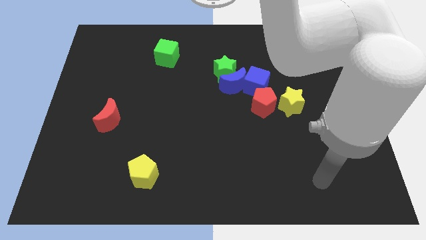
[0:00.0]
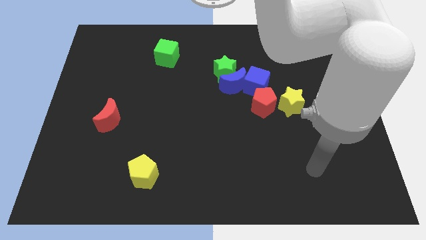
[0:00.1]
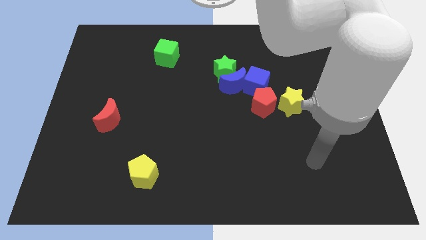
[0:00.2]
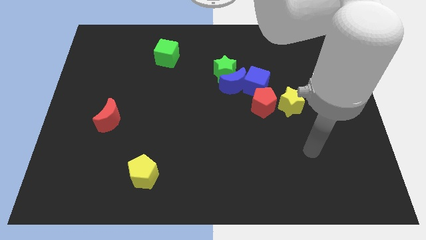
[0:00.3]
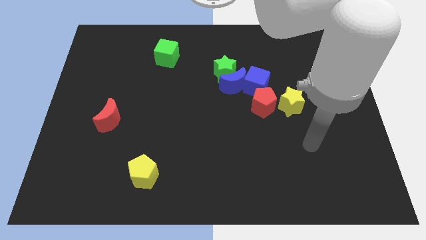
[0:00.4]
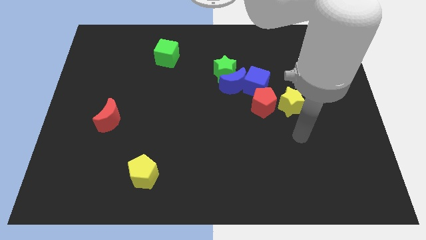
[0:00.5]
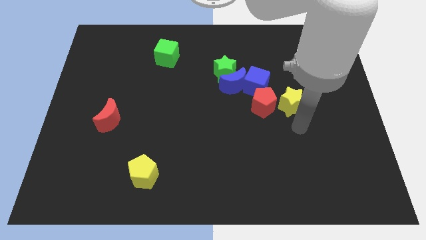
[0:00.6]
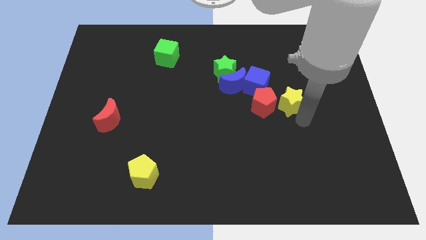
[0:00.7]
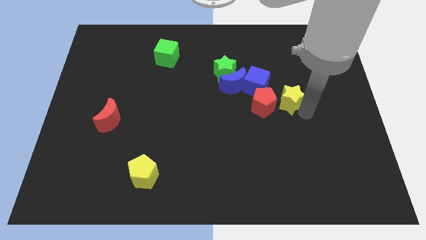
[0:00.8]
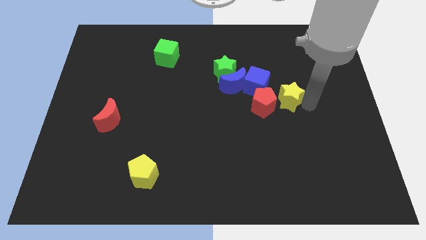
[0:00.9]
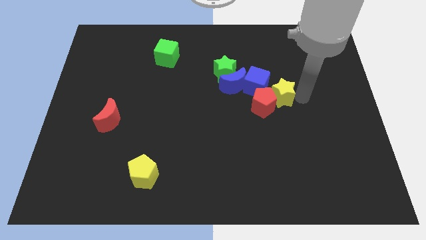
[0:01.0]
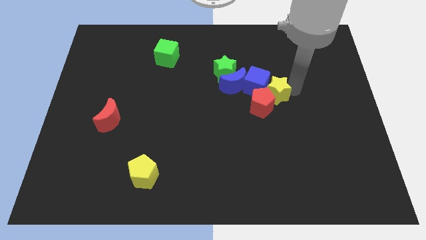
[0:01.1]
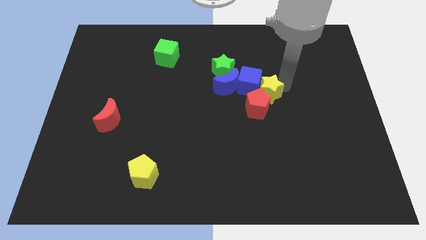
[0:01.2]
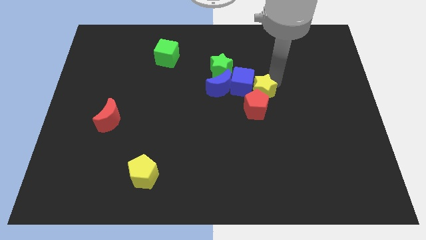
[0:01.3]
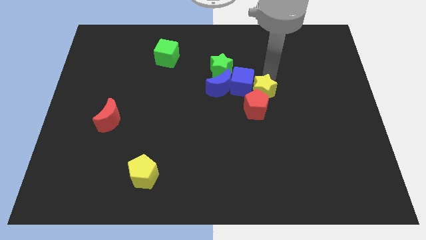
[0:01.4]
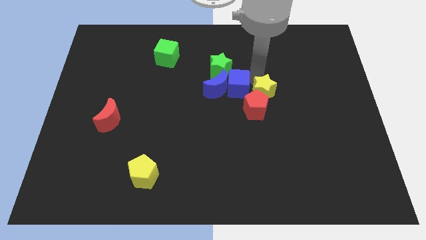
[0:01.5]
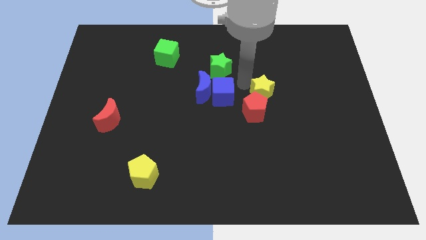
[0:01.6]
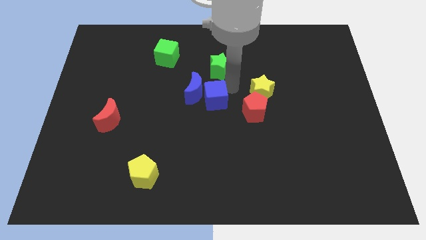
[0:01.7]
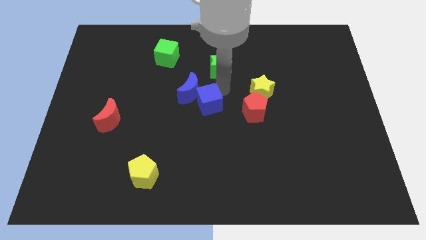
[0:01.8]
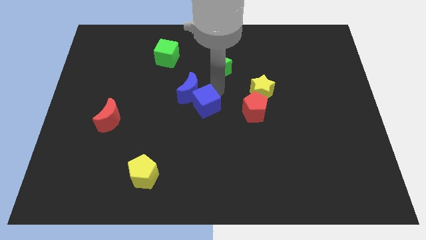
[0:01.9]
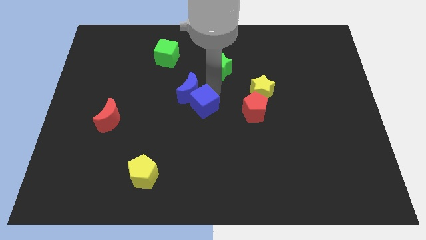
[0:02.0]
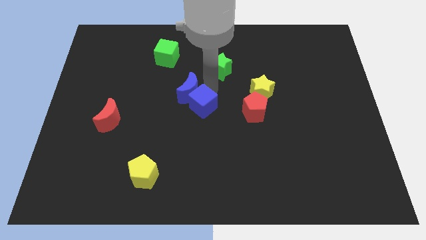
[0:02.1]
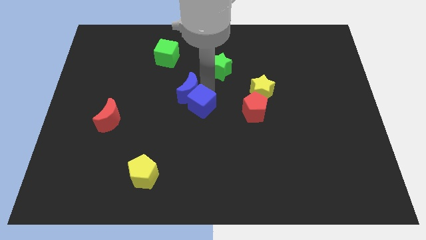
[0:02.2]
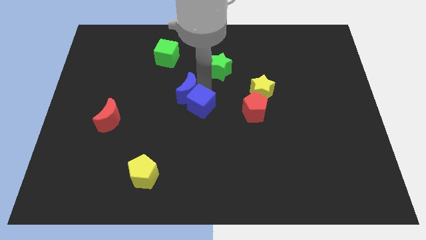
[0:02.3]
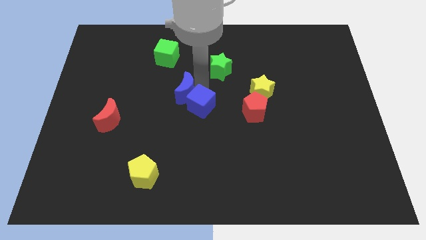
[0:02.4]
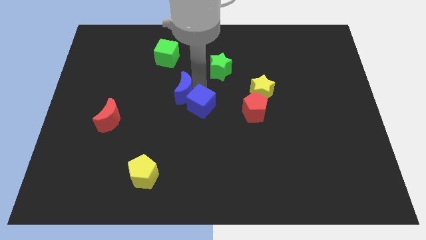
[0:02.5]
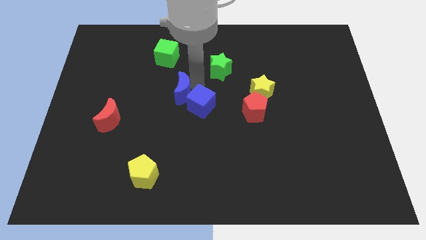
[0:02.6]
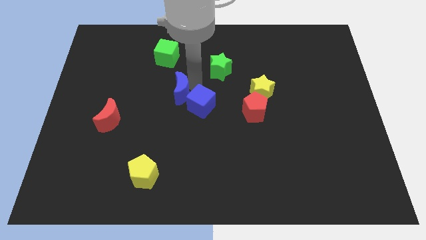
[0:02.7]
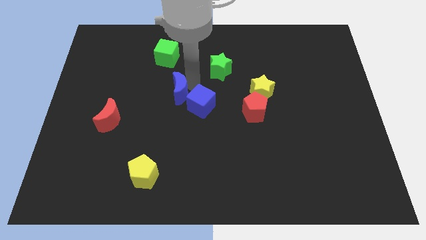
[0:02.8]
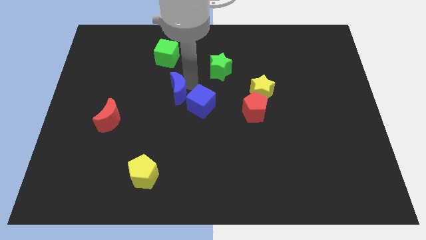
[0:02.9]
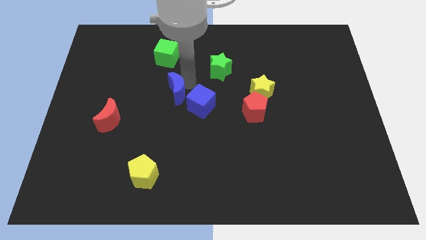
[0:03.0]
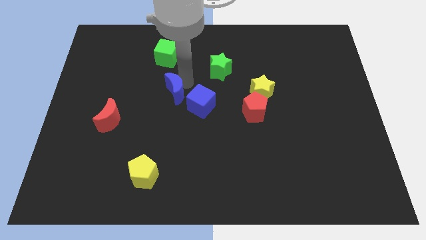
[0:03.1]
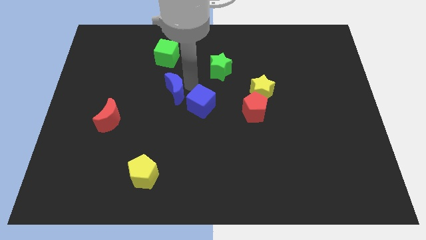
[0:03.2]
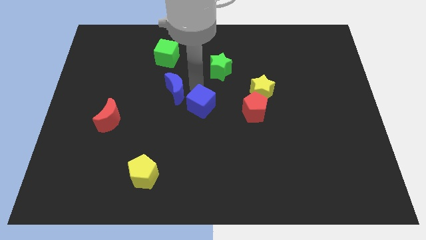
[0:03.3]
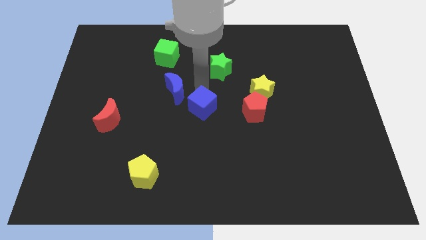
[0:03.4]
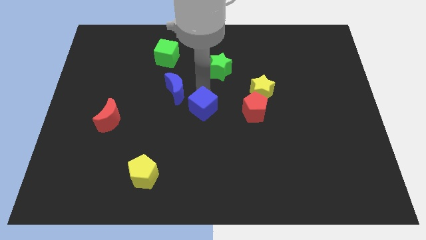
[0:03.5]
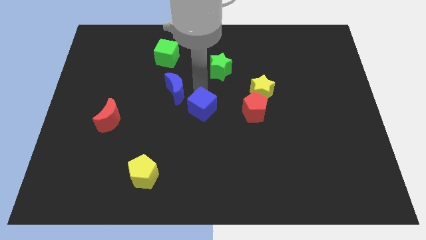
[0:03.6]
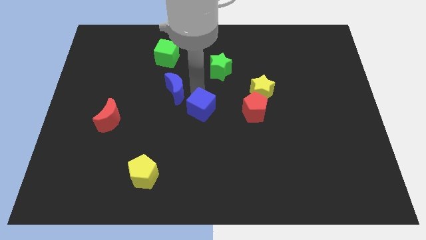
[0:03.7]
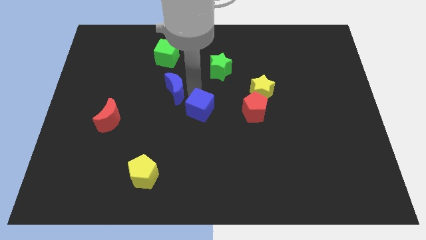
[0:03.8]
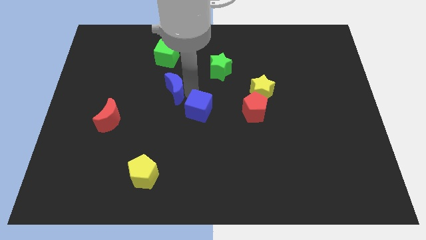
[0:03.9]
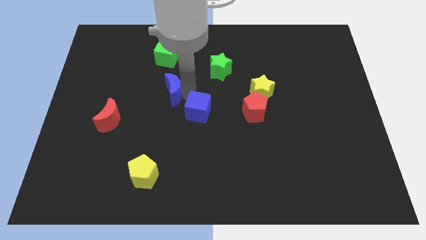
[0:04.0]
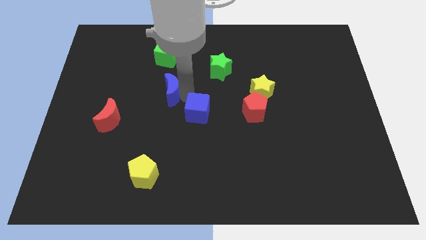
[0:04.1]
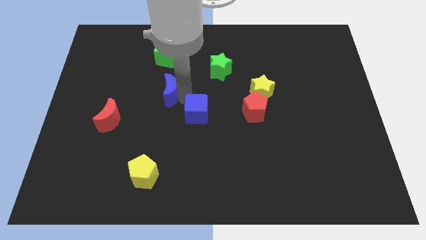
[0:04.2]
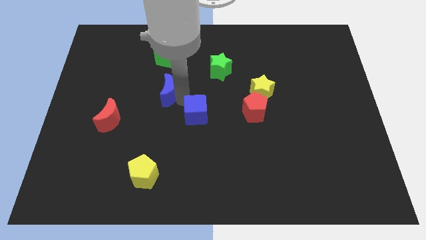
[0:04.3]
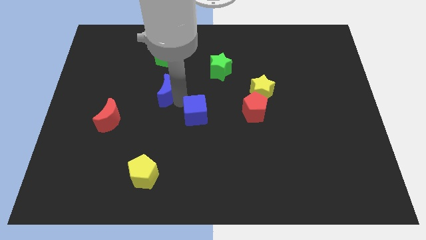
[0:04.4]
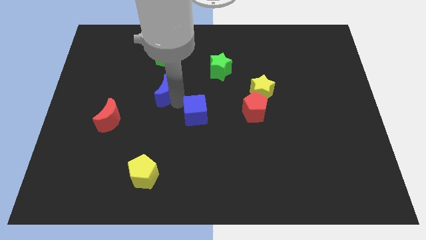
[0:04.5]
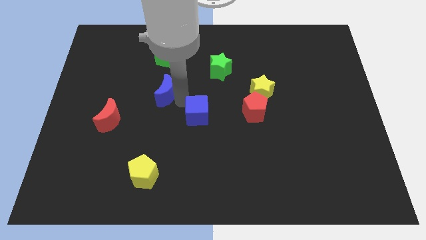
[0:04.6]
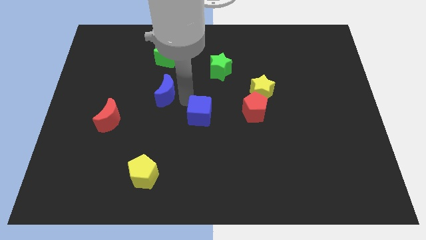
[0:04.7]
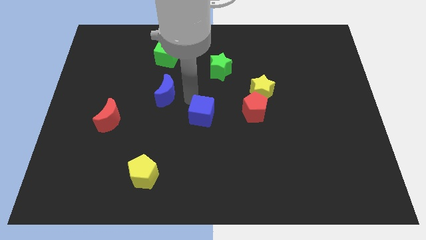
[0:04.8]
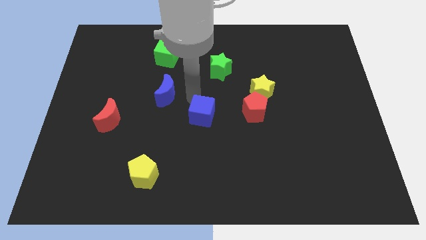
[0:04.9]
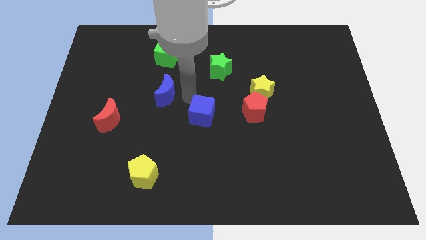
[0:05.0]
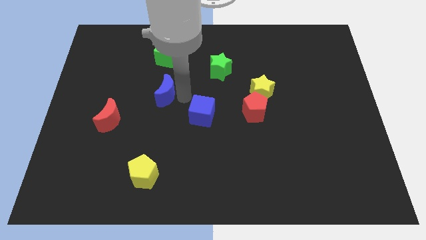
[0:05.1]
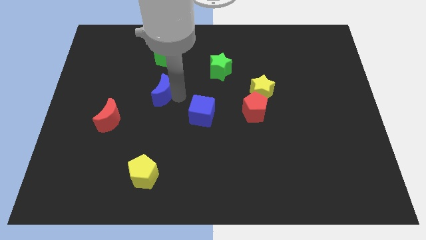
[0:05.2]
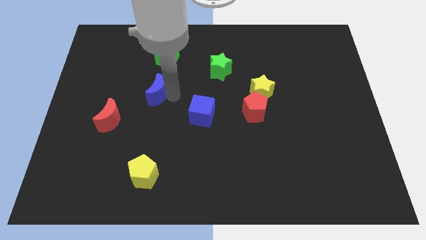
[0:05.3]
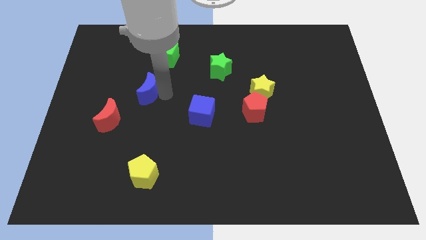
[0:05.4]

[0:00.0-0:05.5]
slide the blue moon left

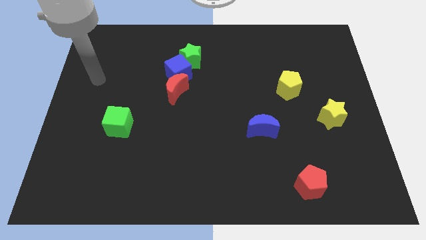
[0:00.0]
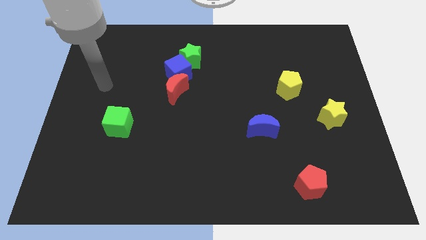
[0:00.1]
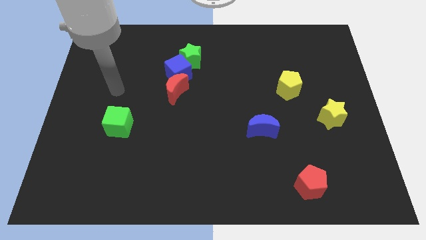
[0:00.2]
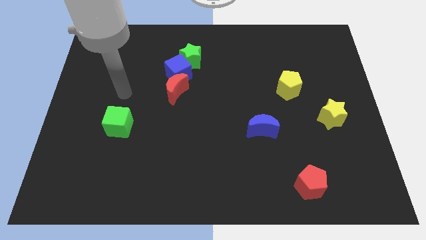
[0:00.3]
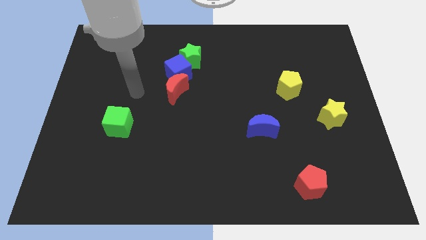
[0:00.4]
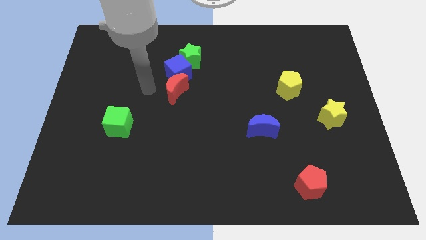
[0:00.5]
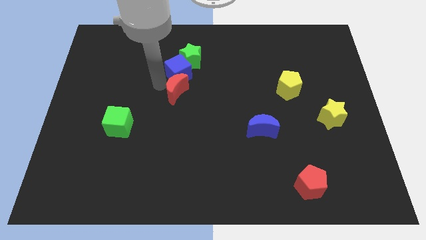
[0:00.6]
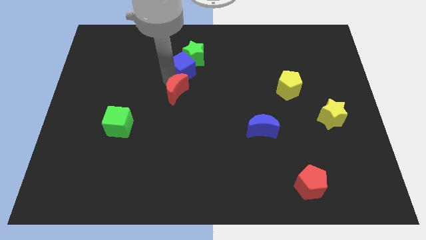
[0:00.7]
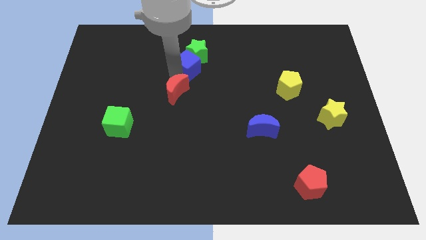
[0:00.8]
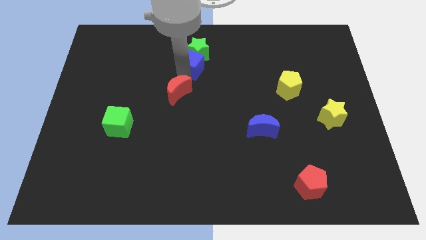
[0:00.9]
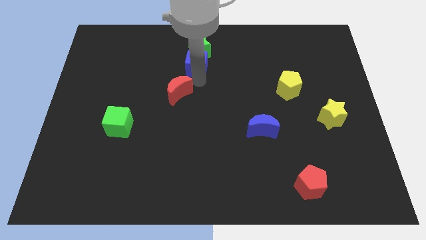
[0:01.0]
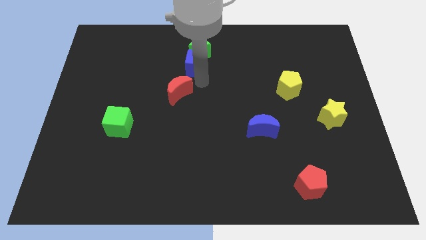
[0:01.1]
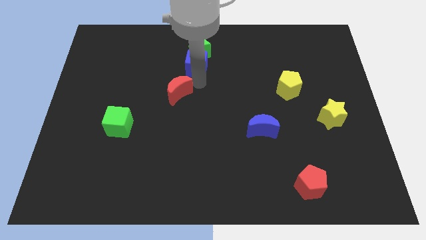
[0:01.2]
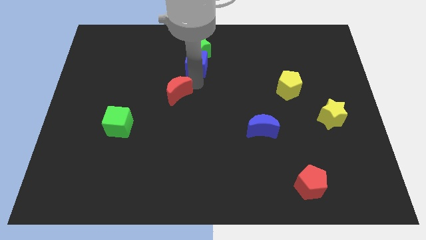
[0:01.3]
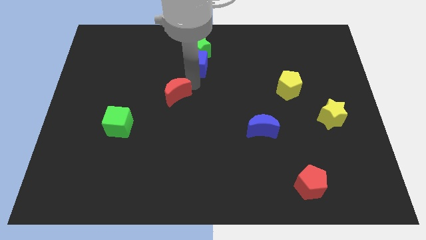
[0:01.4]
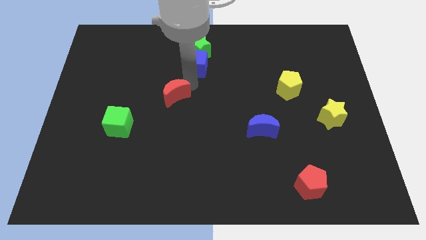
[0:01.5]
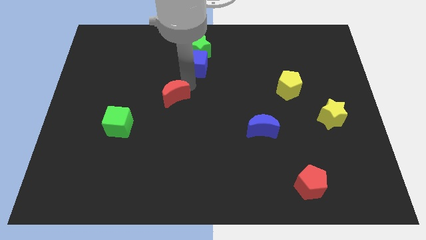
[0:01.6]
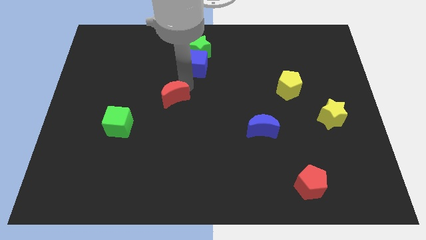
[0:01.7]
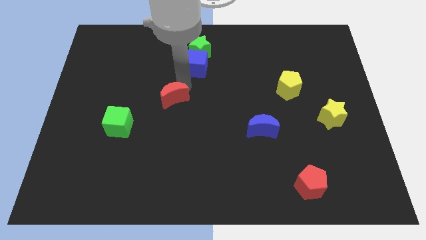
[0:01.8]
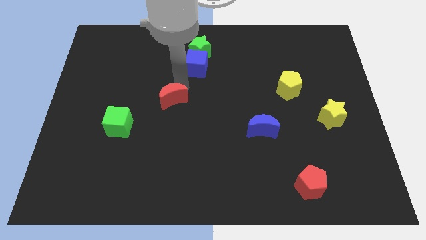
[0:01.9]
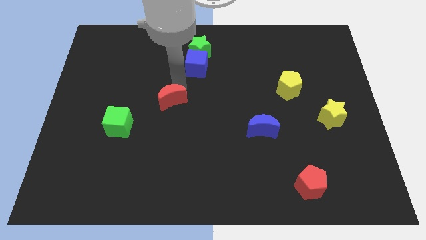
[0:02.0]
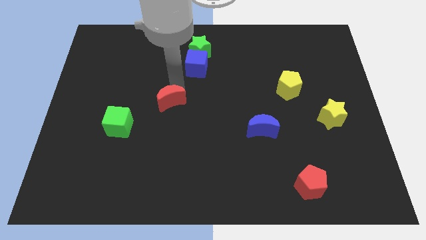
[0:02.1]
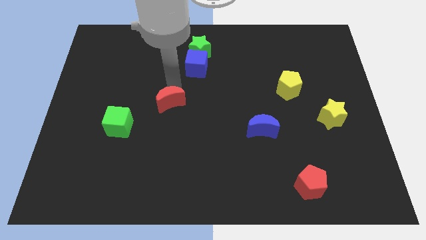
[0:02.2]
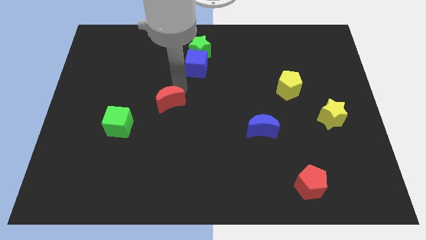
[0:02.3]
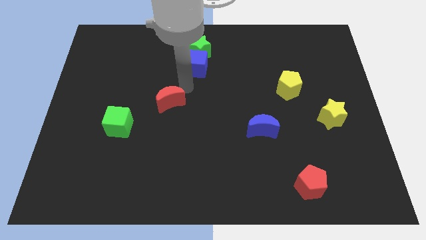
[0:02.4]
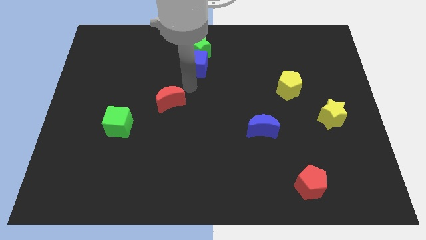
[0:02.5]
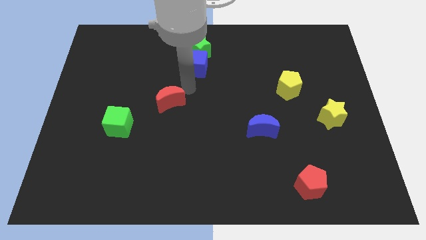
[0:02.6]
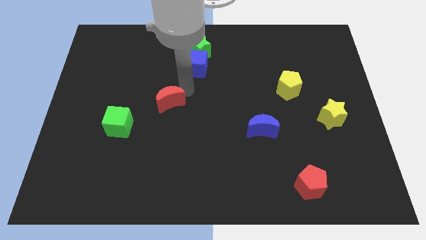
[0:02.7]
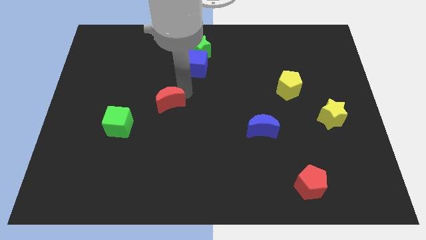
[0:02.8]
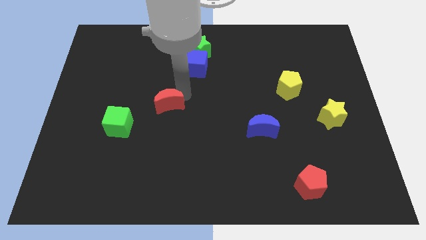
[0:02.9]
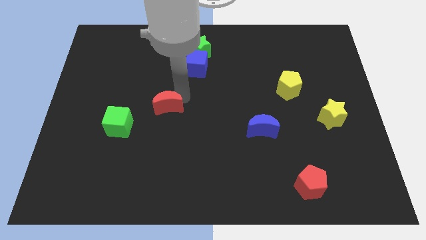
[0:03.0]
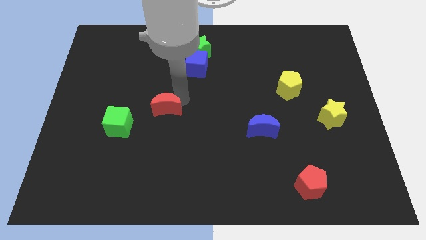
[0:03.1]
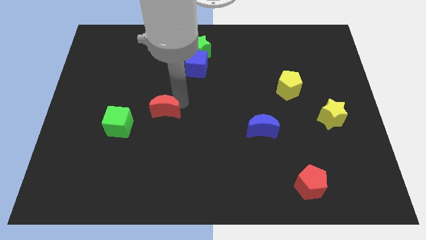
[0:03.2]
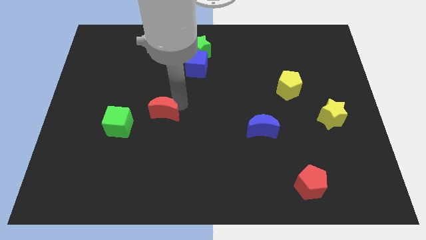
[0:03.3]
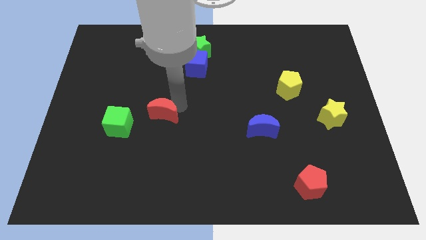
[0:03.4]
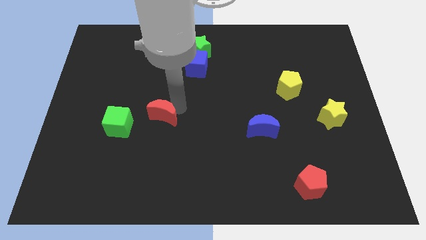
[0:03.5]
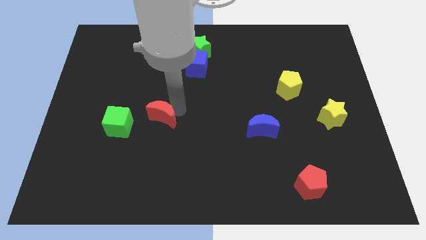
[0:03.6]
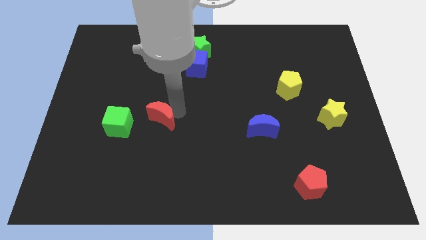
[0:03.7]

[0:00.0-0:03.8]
move the red moon down and to the left a little bit
